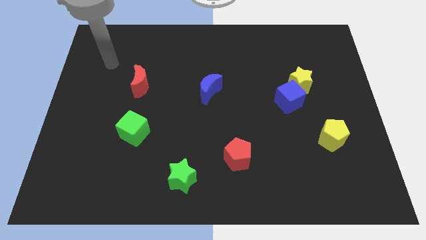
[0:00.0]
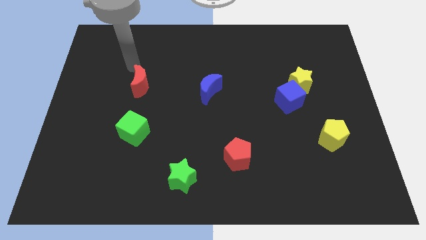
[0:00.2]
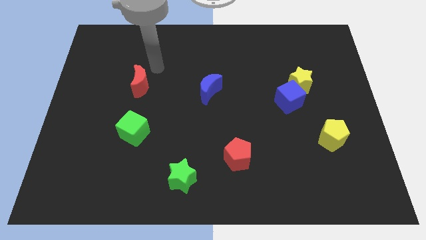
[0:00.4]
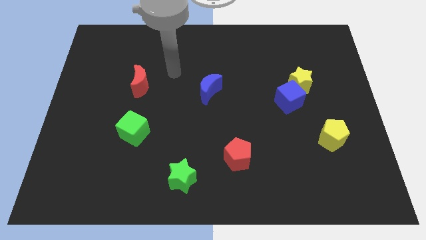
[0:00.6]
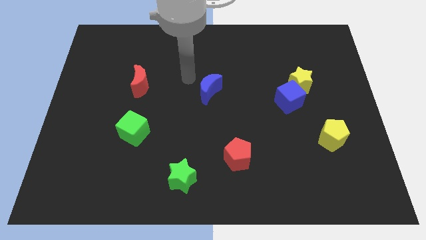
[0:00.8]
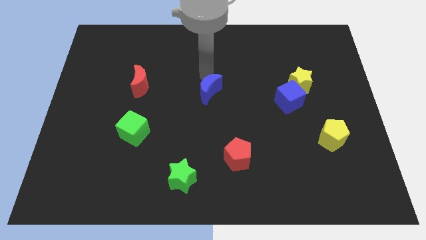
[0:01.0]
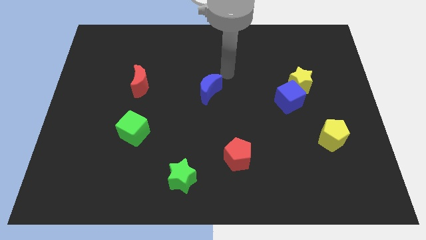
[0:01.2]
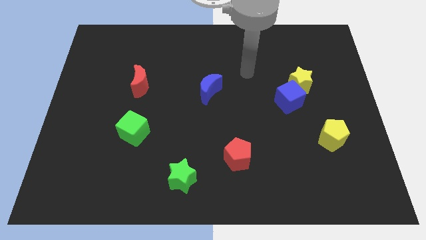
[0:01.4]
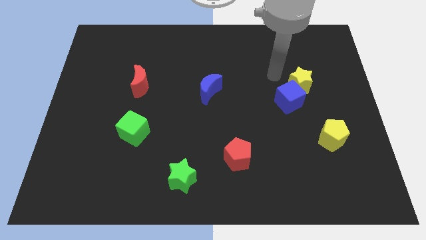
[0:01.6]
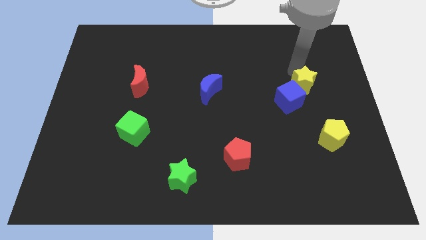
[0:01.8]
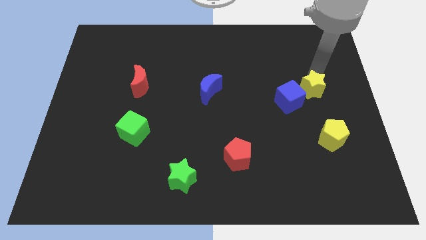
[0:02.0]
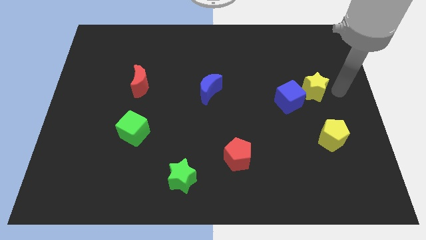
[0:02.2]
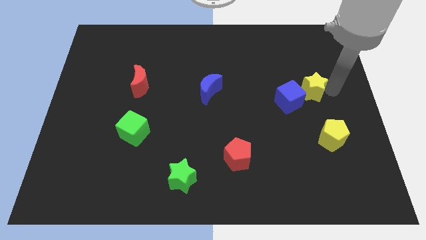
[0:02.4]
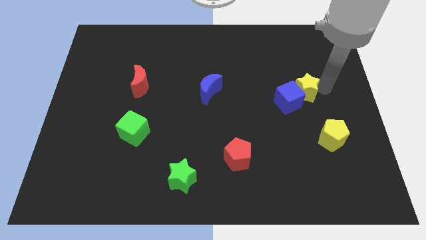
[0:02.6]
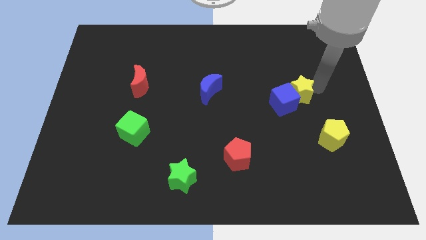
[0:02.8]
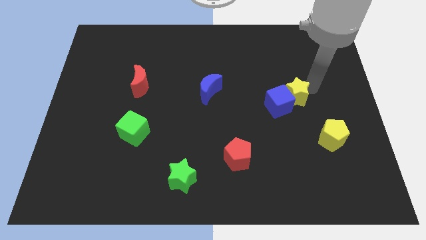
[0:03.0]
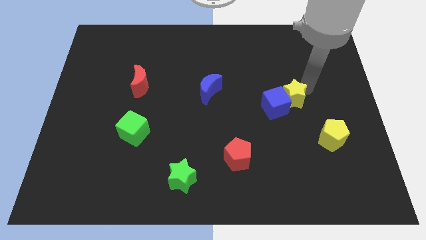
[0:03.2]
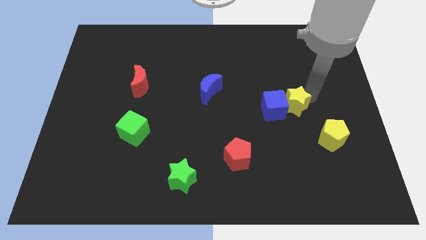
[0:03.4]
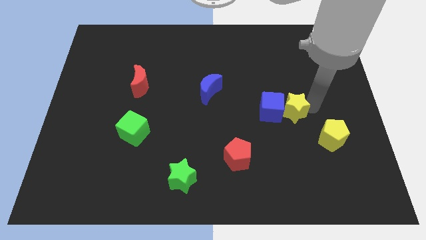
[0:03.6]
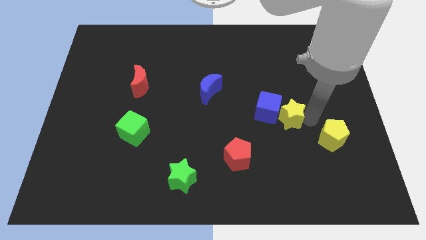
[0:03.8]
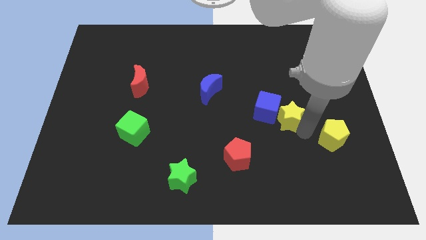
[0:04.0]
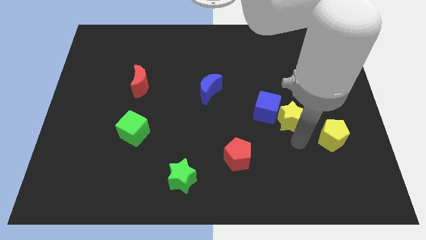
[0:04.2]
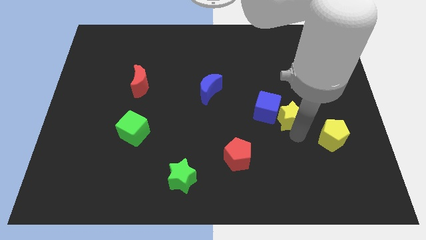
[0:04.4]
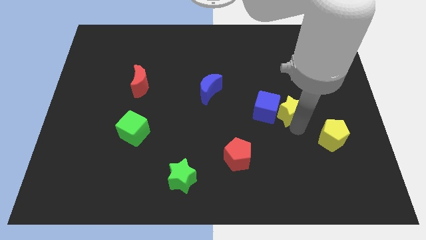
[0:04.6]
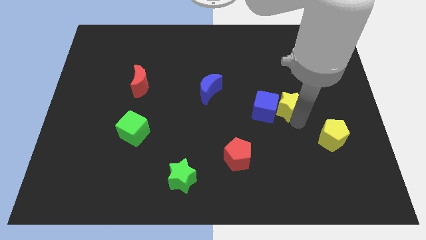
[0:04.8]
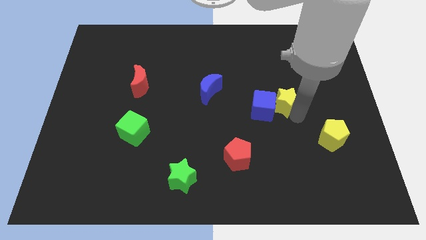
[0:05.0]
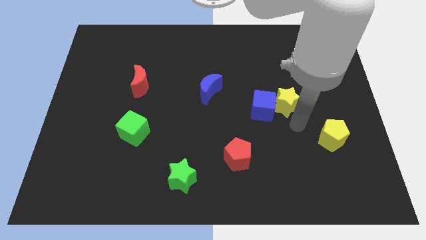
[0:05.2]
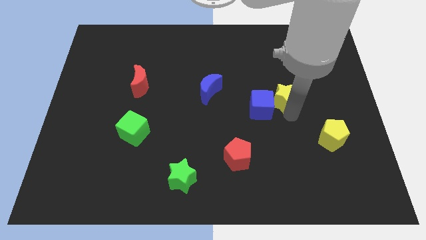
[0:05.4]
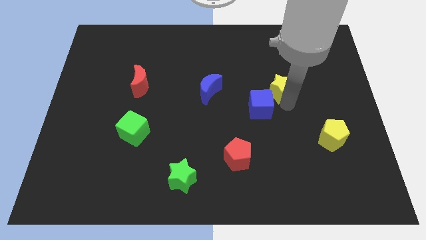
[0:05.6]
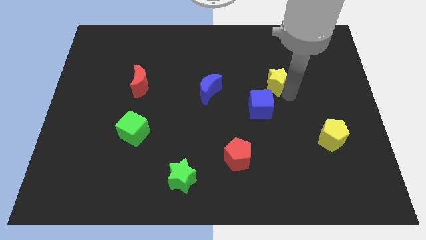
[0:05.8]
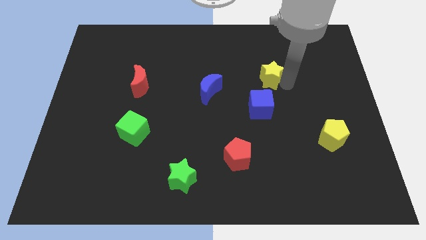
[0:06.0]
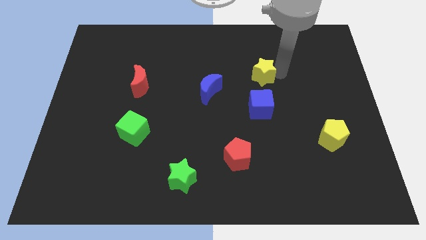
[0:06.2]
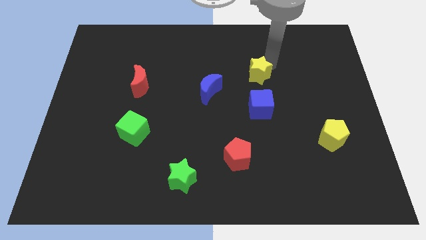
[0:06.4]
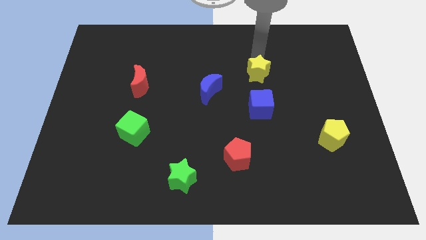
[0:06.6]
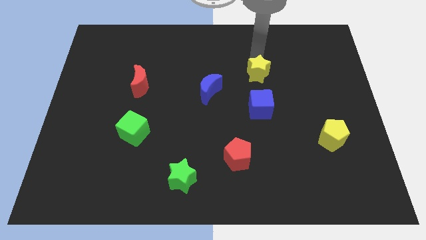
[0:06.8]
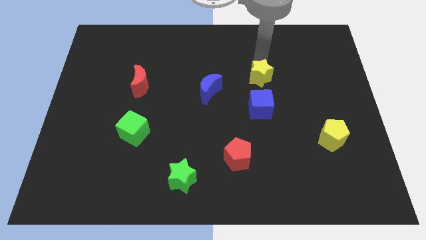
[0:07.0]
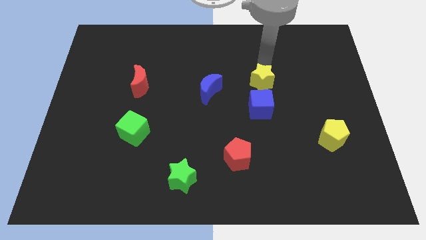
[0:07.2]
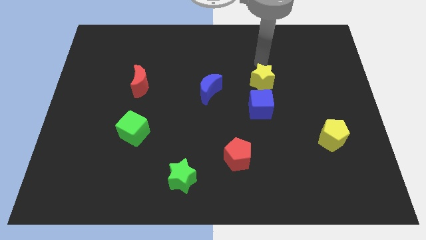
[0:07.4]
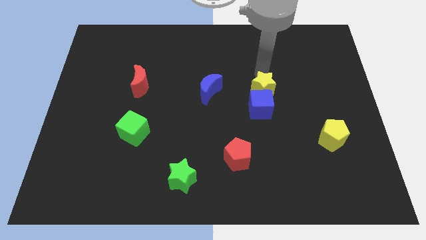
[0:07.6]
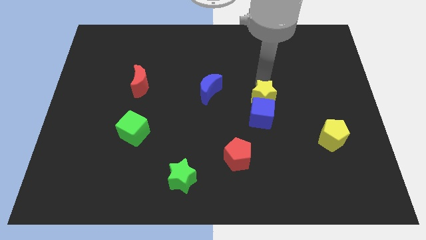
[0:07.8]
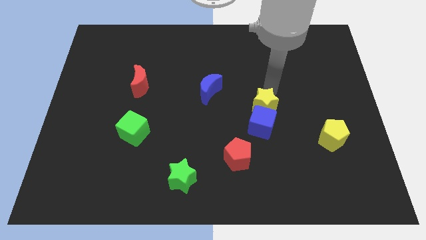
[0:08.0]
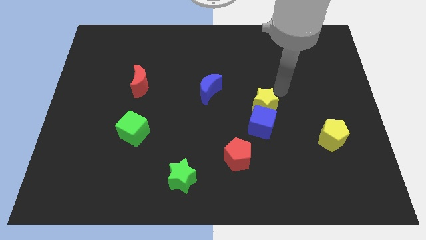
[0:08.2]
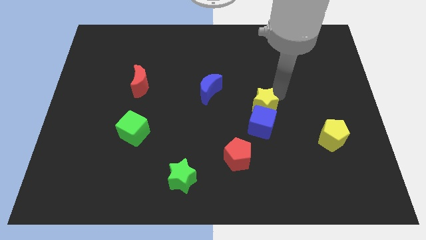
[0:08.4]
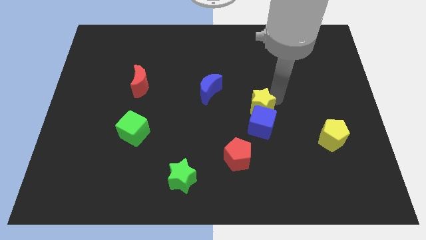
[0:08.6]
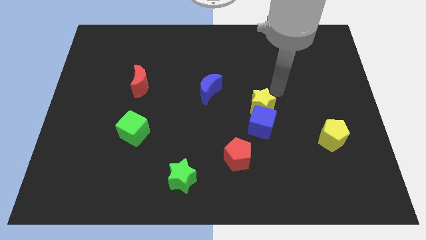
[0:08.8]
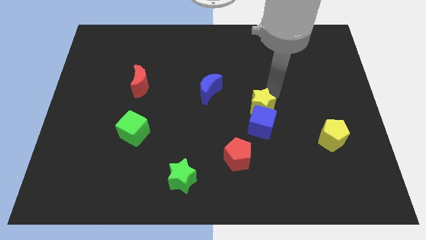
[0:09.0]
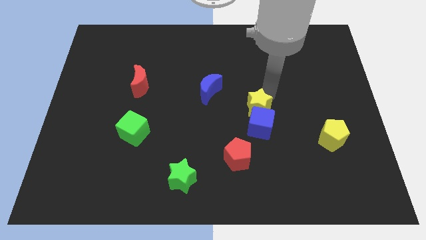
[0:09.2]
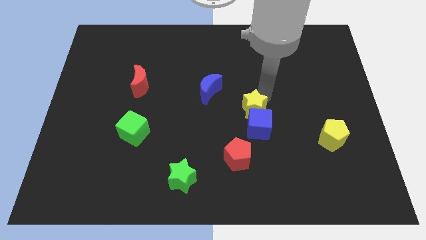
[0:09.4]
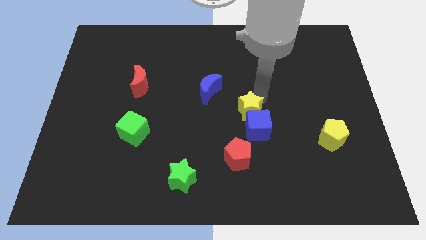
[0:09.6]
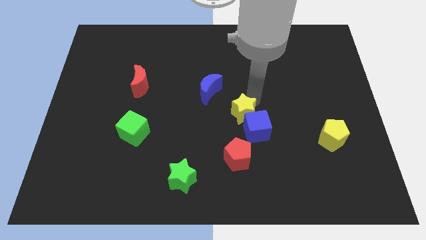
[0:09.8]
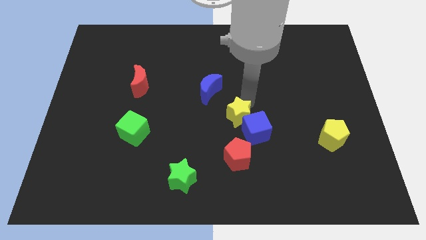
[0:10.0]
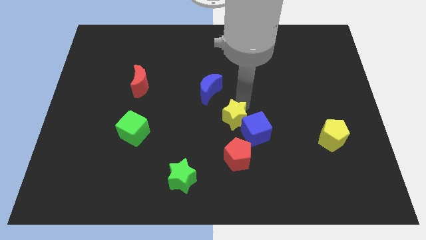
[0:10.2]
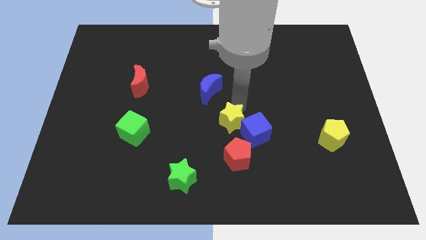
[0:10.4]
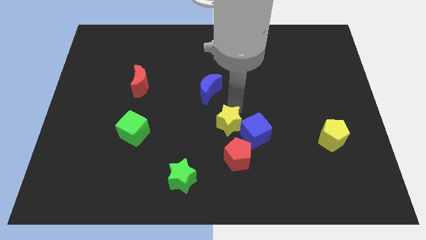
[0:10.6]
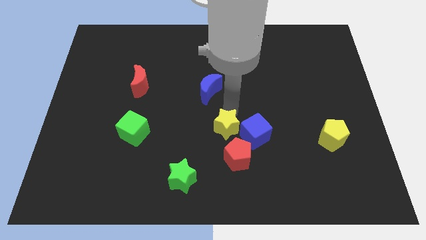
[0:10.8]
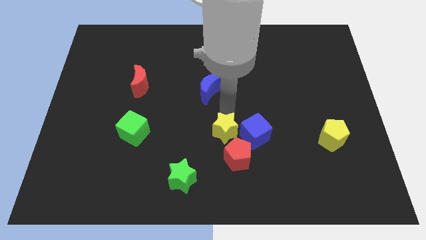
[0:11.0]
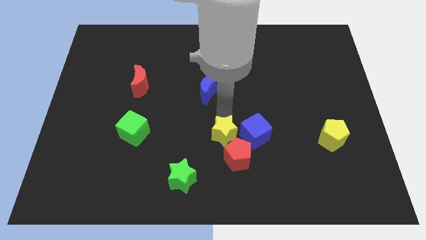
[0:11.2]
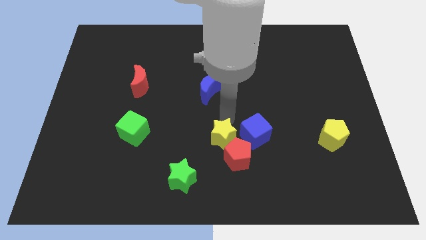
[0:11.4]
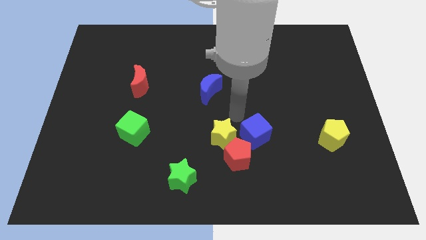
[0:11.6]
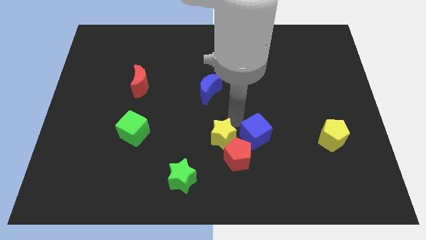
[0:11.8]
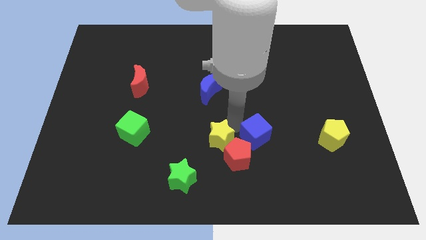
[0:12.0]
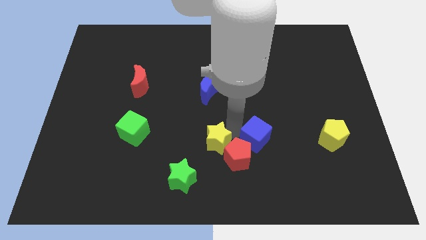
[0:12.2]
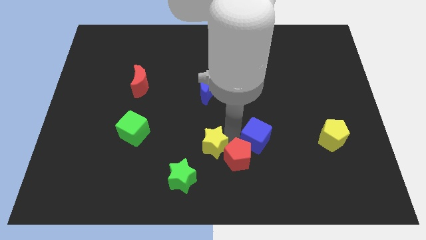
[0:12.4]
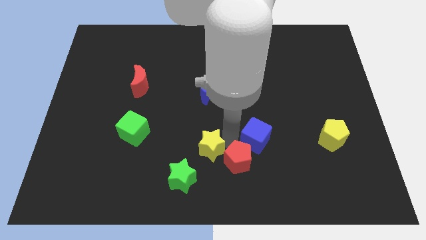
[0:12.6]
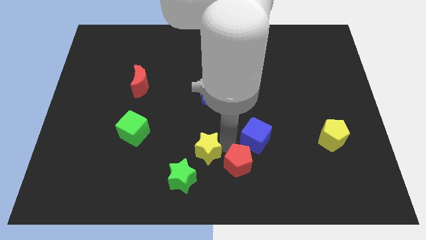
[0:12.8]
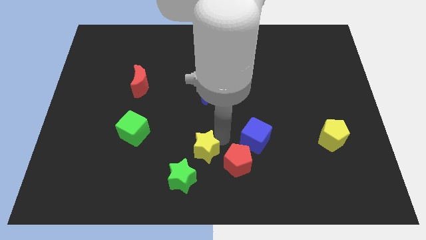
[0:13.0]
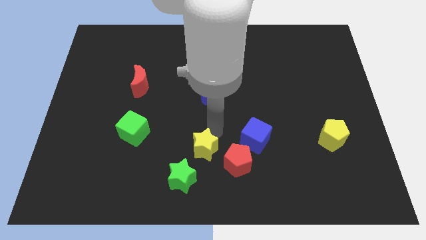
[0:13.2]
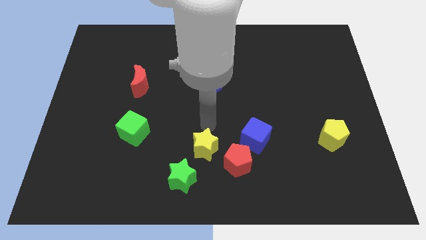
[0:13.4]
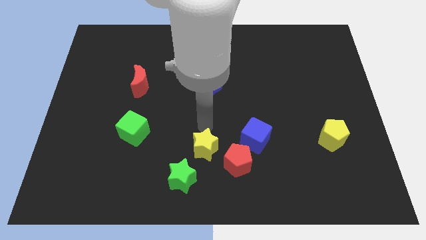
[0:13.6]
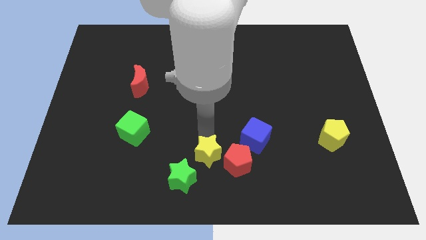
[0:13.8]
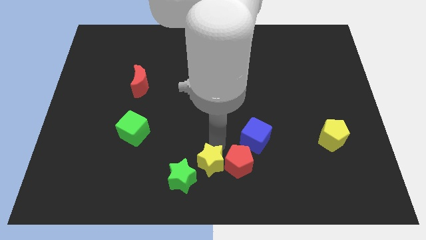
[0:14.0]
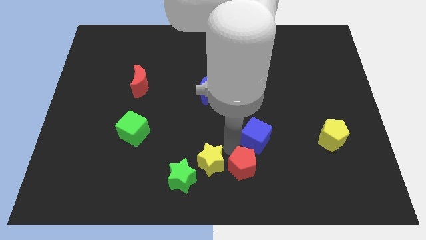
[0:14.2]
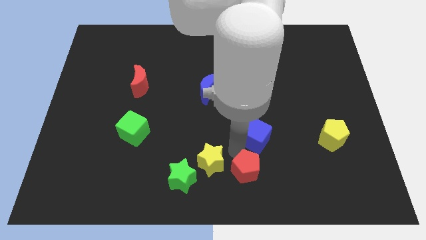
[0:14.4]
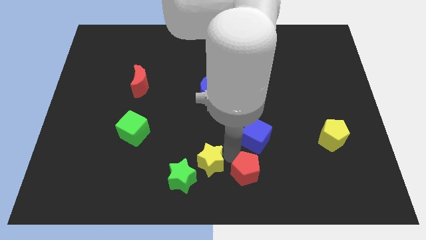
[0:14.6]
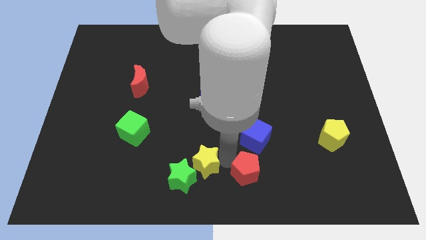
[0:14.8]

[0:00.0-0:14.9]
move the yellow star towards the green star
